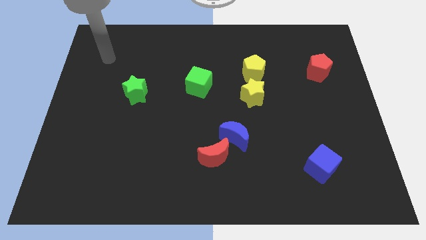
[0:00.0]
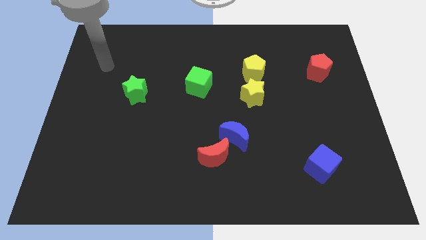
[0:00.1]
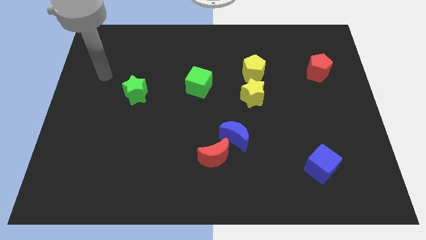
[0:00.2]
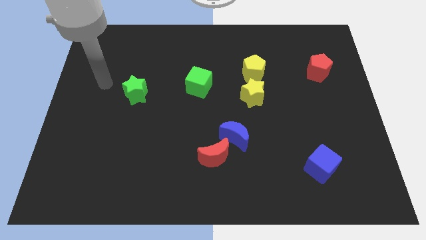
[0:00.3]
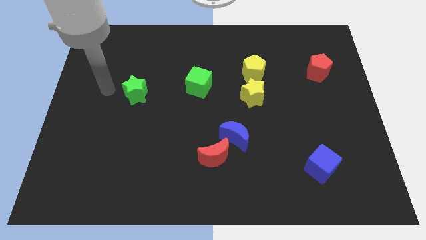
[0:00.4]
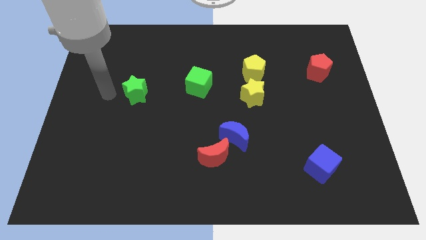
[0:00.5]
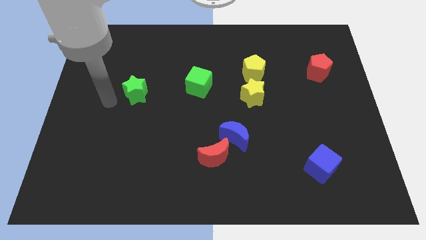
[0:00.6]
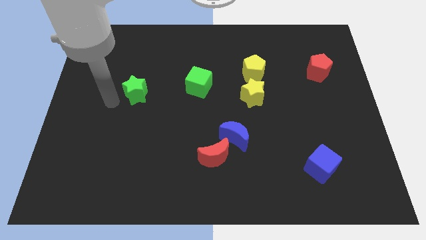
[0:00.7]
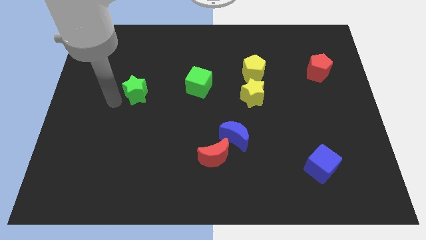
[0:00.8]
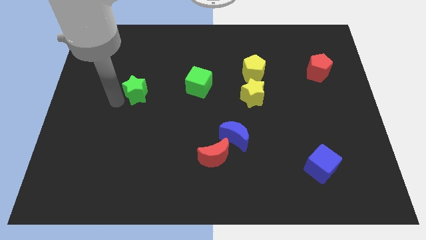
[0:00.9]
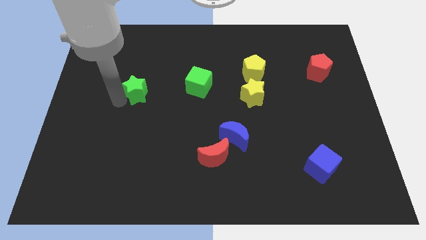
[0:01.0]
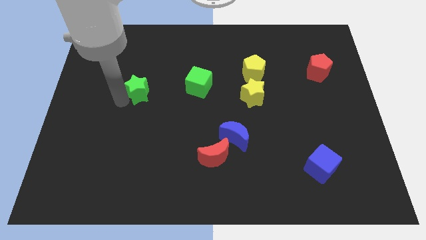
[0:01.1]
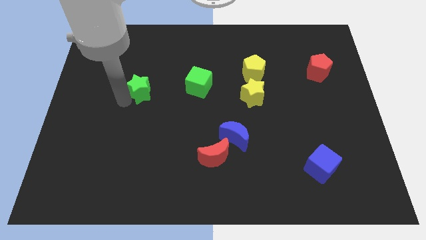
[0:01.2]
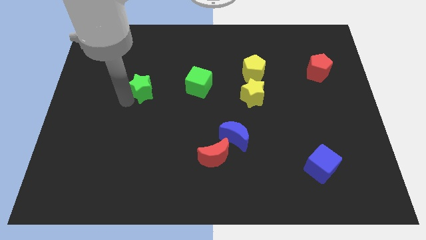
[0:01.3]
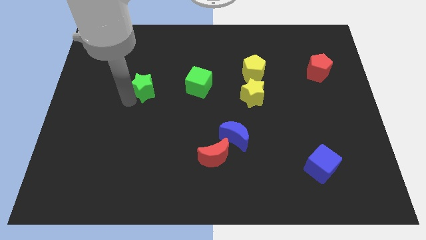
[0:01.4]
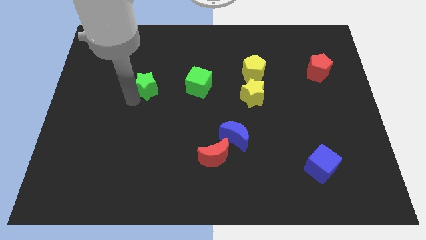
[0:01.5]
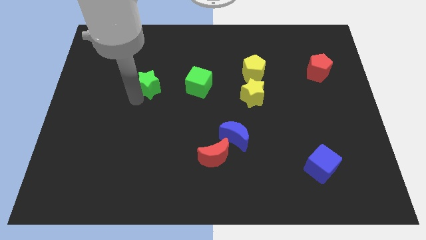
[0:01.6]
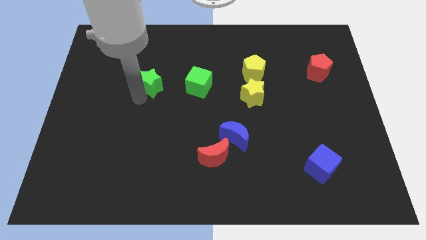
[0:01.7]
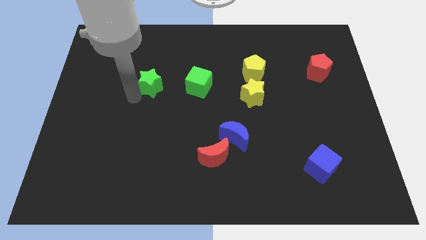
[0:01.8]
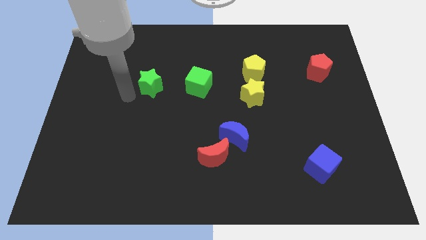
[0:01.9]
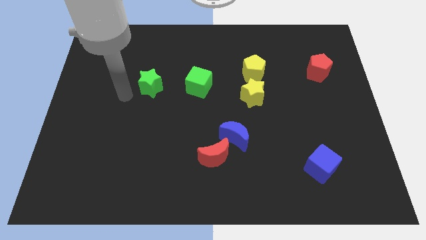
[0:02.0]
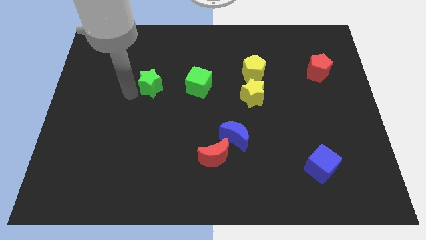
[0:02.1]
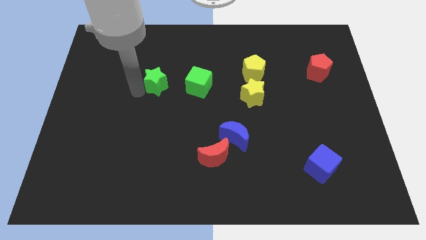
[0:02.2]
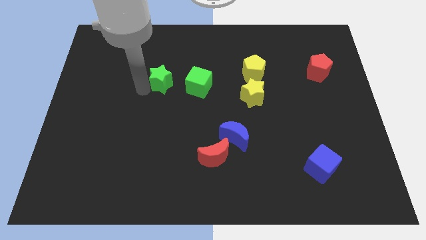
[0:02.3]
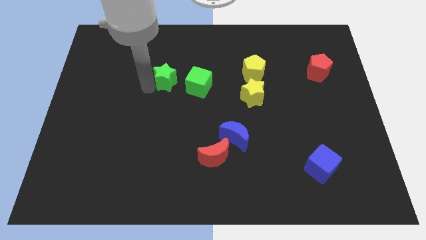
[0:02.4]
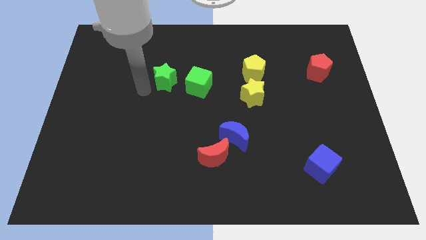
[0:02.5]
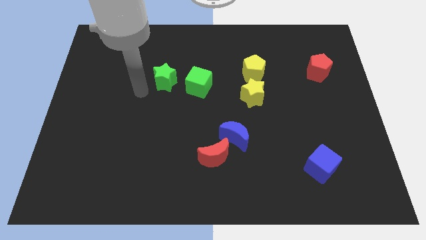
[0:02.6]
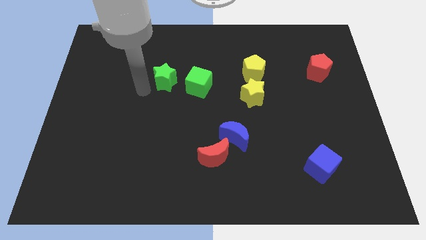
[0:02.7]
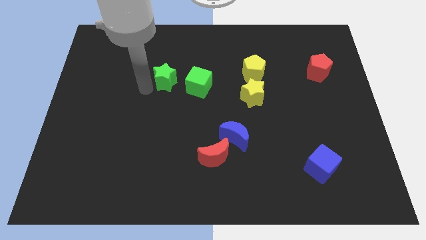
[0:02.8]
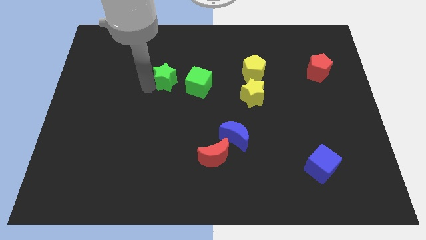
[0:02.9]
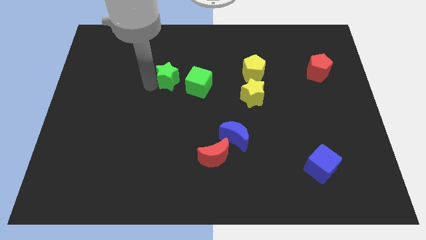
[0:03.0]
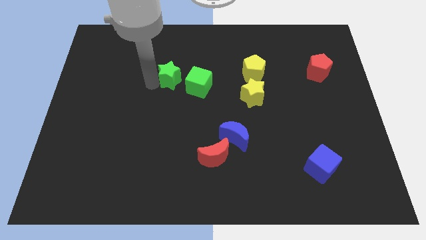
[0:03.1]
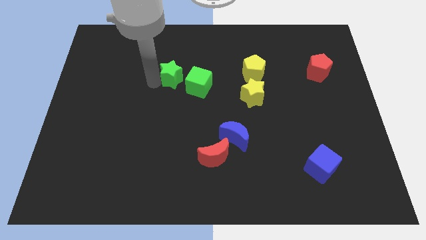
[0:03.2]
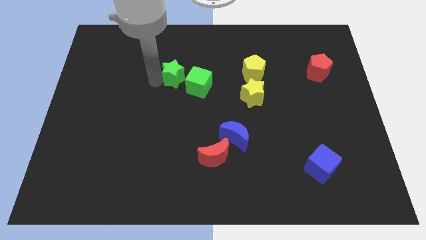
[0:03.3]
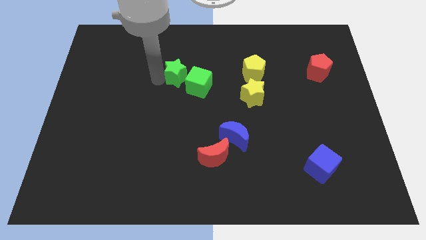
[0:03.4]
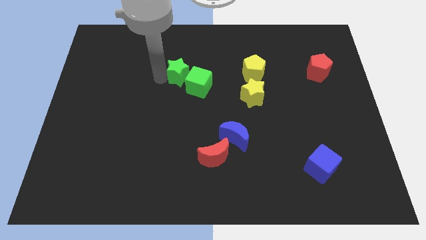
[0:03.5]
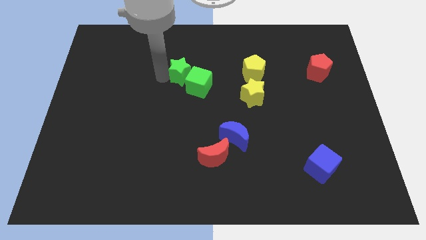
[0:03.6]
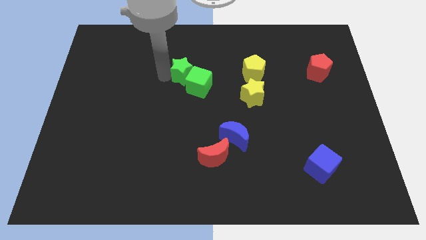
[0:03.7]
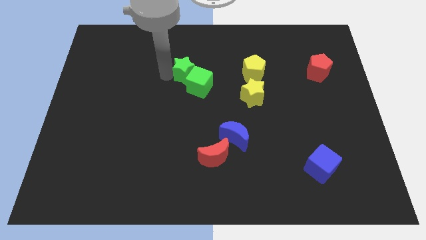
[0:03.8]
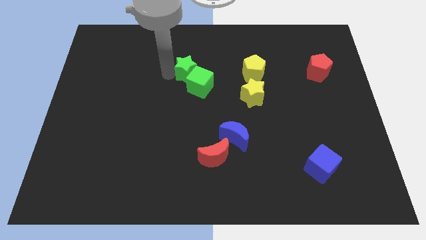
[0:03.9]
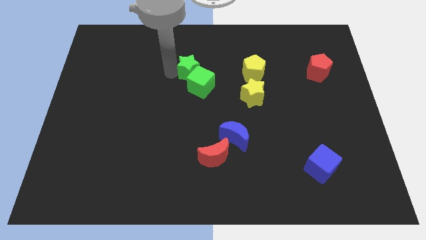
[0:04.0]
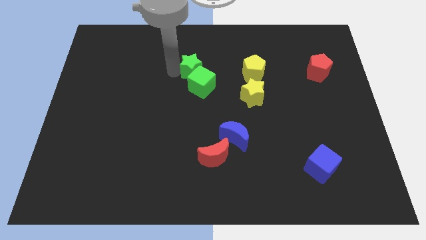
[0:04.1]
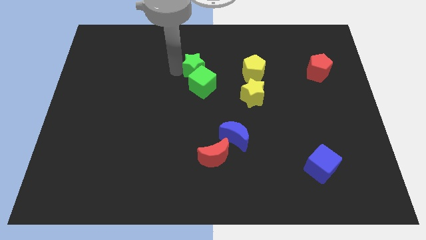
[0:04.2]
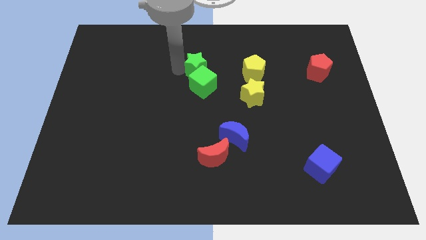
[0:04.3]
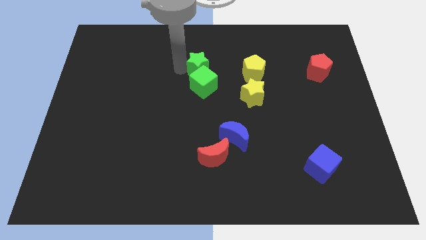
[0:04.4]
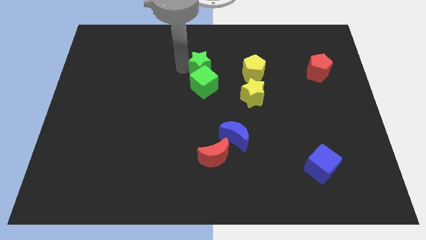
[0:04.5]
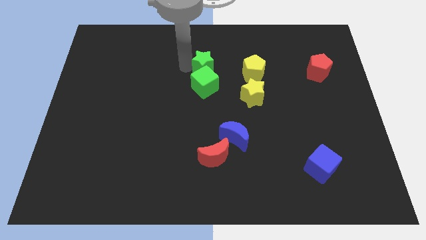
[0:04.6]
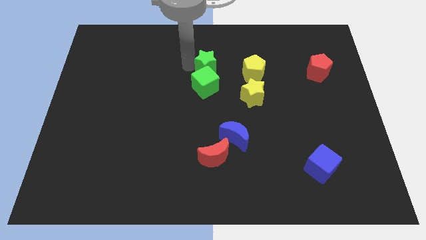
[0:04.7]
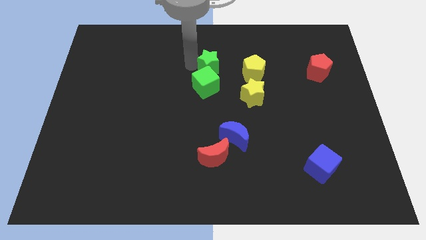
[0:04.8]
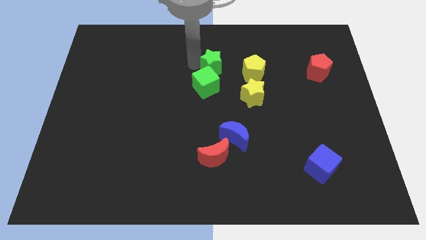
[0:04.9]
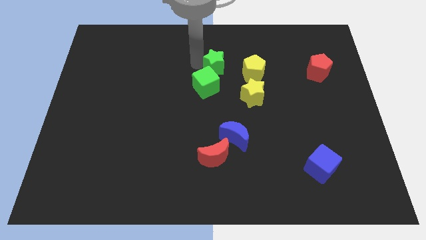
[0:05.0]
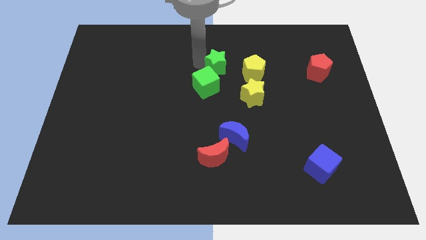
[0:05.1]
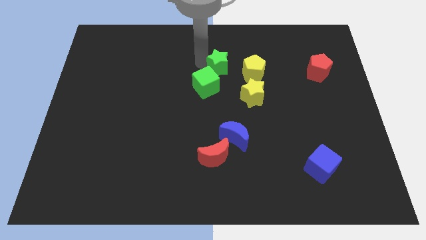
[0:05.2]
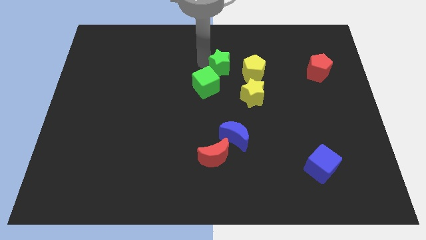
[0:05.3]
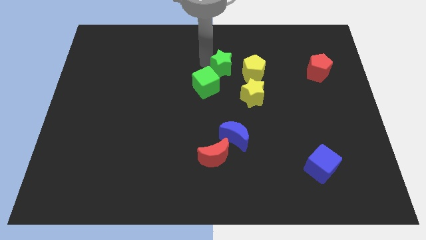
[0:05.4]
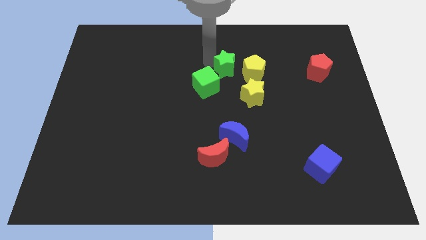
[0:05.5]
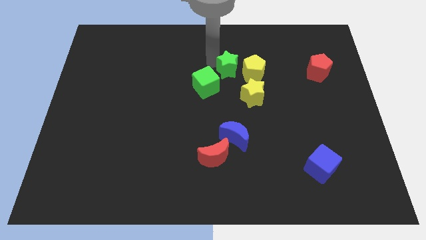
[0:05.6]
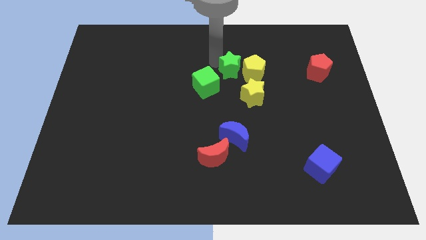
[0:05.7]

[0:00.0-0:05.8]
put the green star next to the yellow pentagon

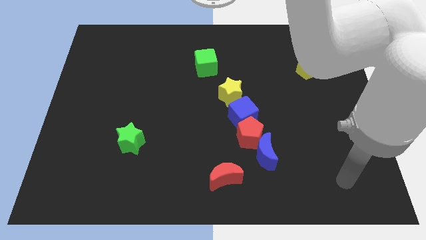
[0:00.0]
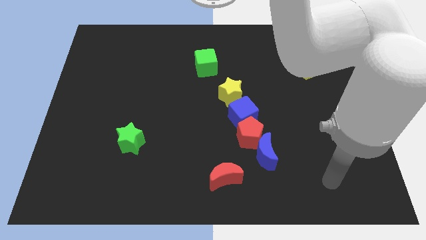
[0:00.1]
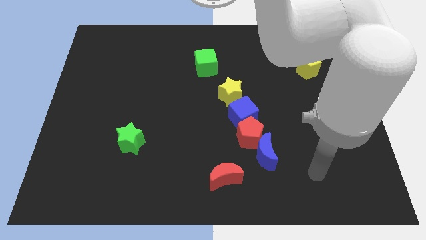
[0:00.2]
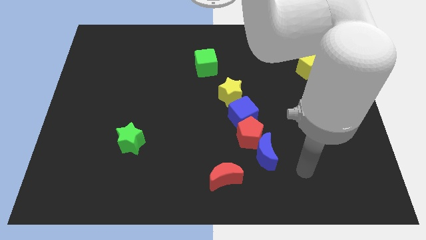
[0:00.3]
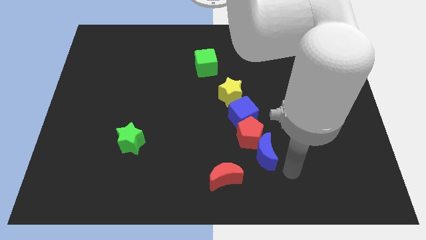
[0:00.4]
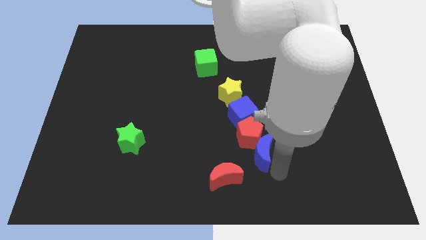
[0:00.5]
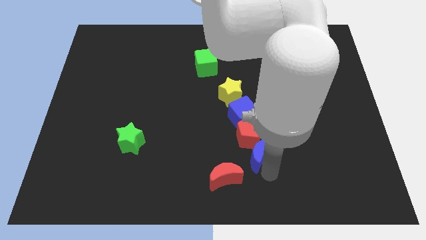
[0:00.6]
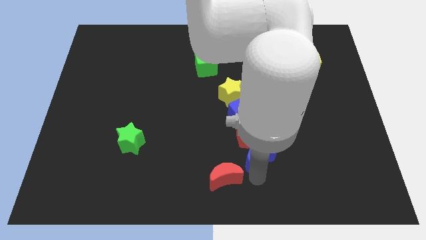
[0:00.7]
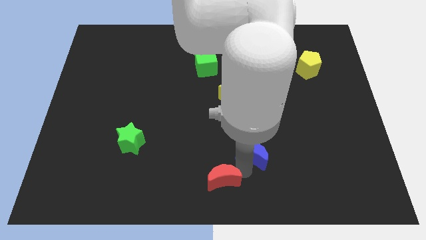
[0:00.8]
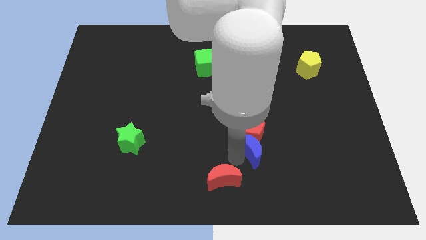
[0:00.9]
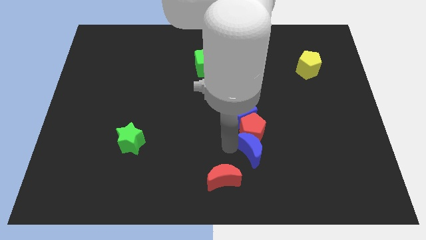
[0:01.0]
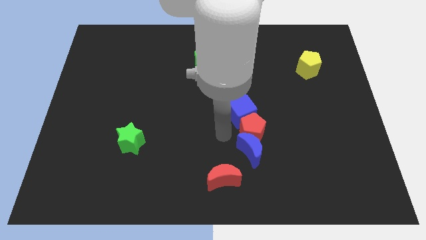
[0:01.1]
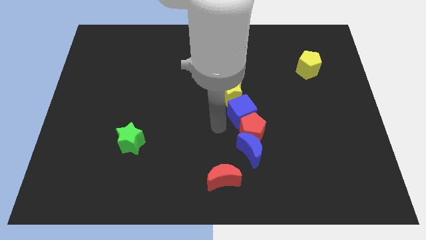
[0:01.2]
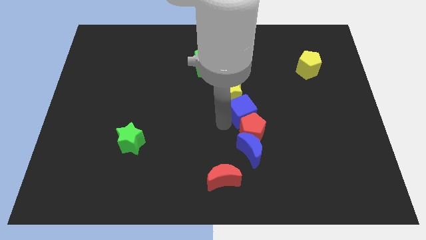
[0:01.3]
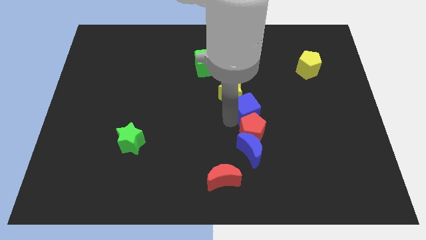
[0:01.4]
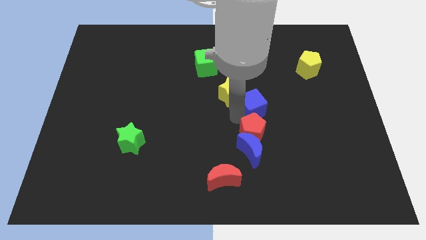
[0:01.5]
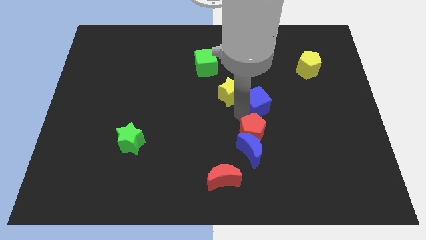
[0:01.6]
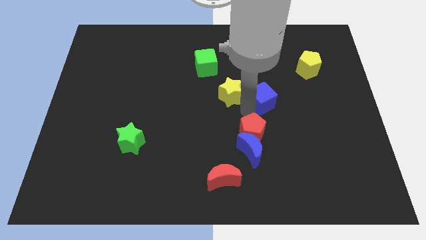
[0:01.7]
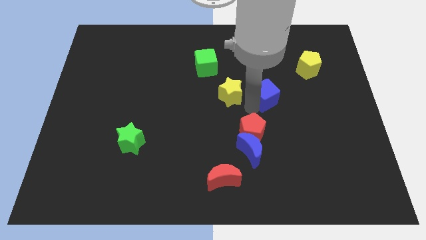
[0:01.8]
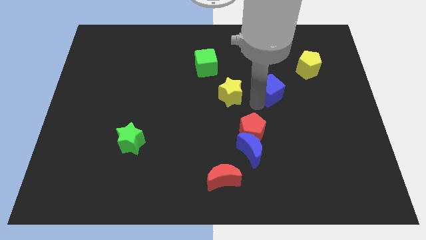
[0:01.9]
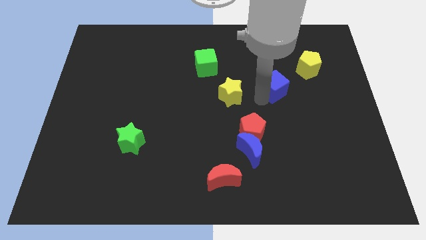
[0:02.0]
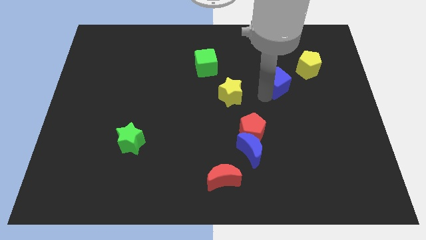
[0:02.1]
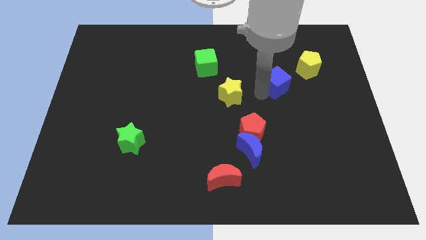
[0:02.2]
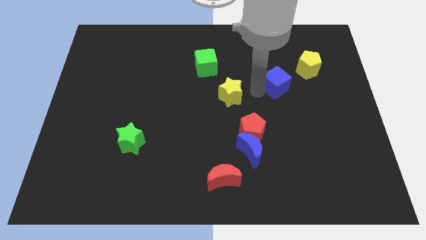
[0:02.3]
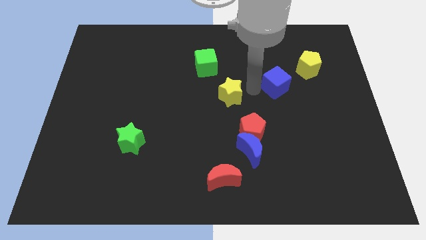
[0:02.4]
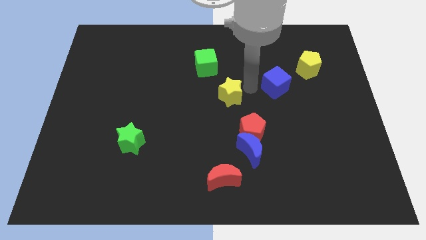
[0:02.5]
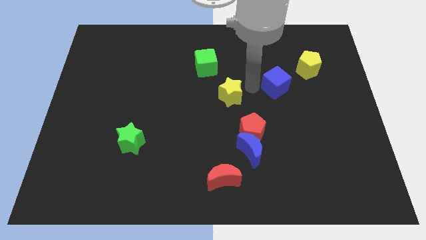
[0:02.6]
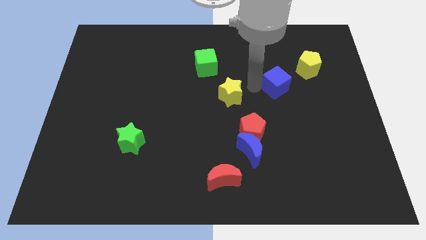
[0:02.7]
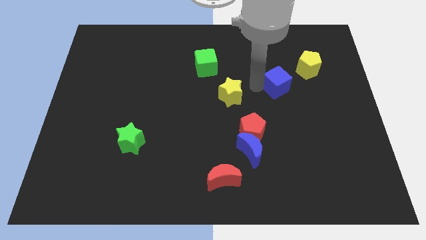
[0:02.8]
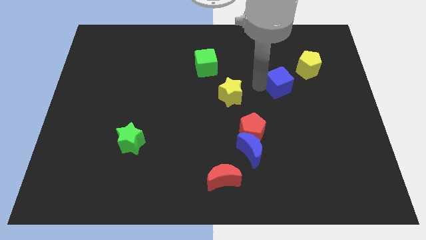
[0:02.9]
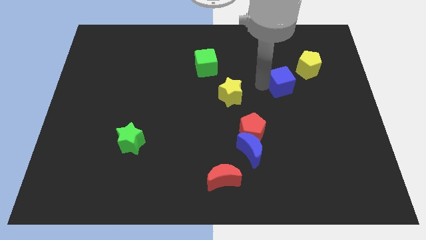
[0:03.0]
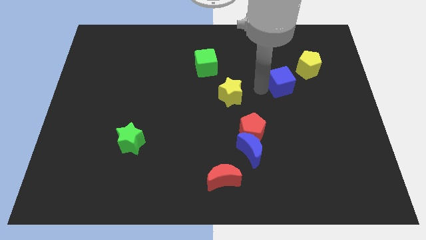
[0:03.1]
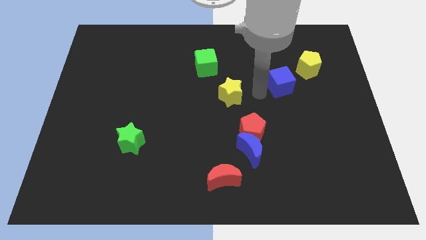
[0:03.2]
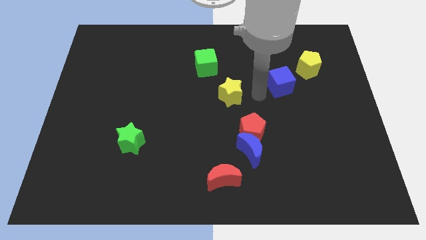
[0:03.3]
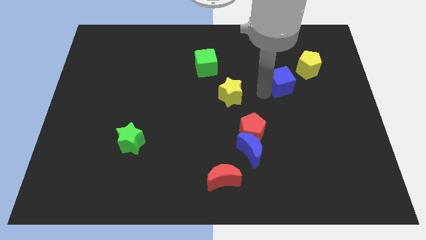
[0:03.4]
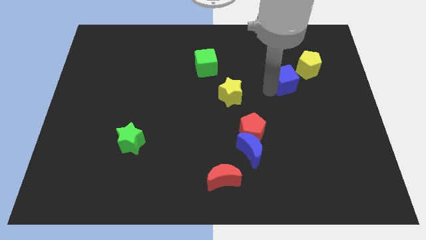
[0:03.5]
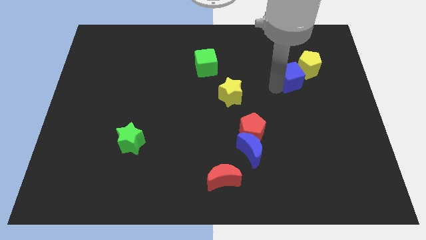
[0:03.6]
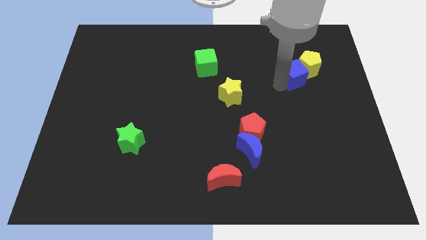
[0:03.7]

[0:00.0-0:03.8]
slide the blue cube towards the yellow pentagon
